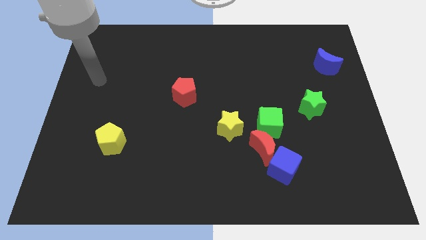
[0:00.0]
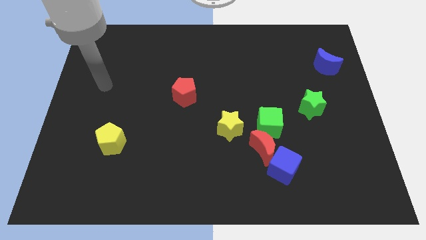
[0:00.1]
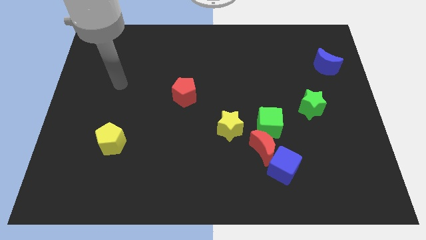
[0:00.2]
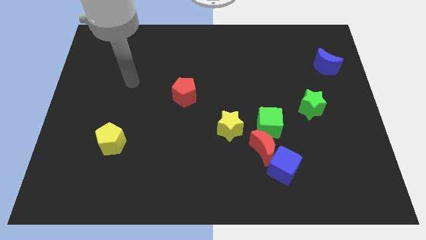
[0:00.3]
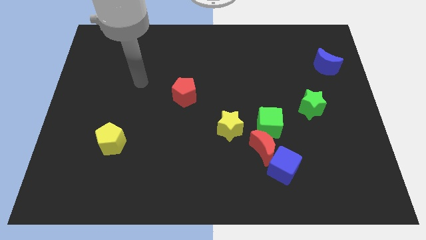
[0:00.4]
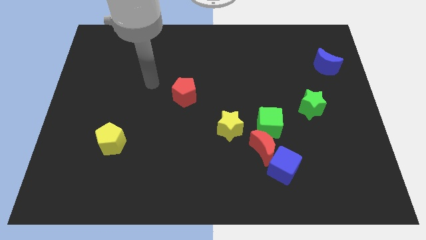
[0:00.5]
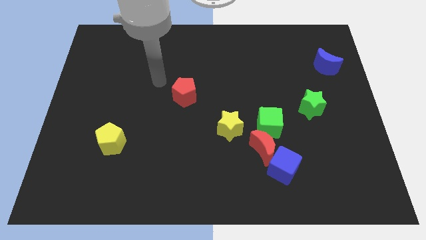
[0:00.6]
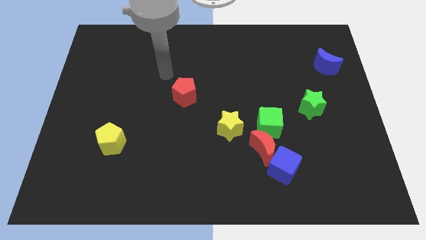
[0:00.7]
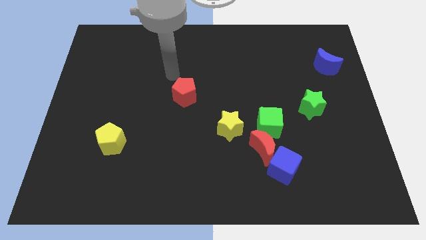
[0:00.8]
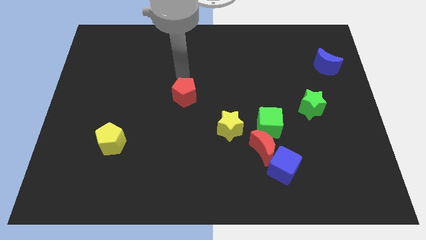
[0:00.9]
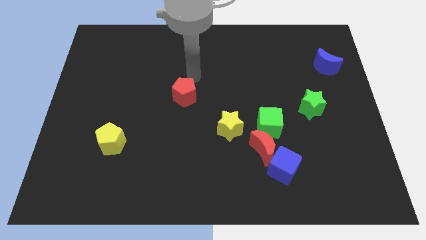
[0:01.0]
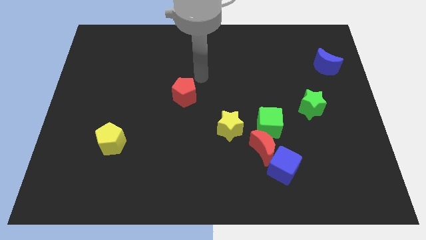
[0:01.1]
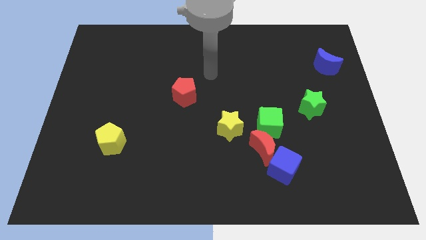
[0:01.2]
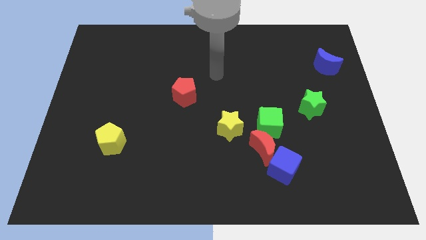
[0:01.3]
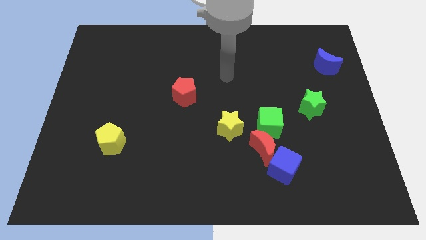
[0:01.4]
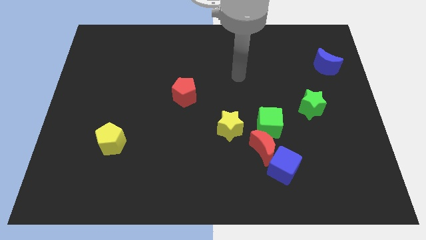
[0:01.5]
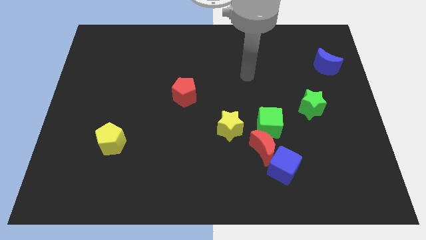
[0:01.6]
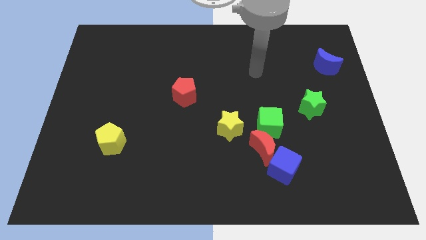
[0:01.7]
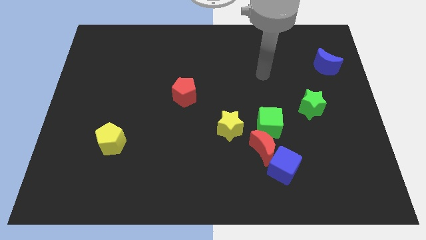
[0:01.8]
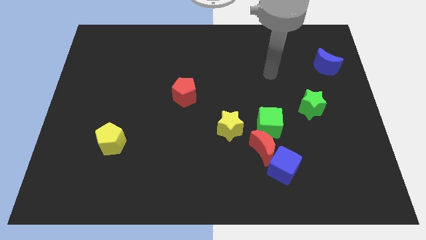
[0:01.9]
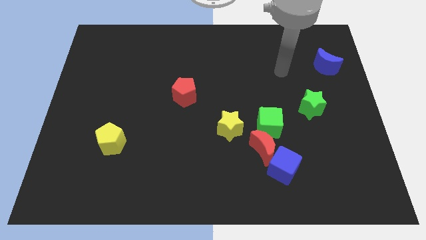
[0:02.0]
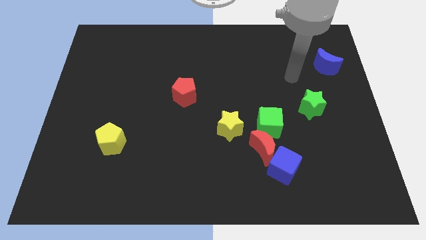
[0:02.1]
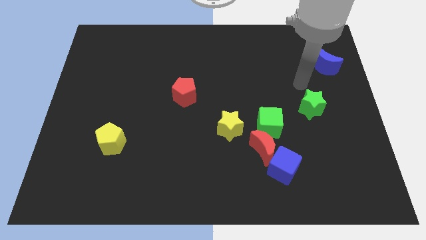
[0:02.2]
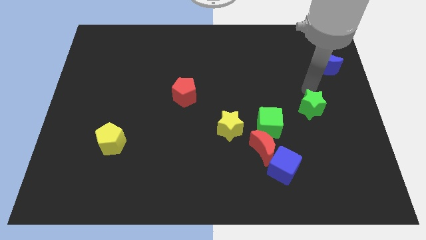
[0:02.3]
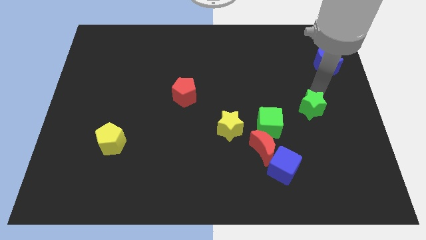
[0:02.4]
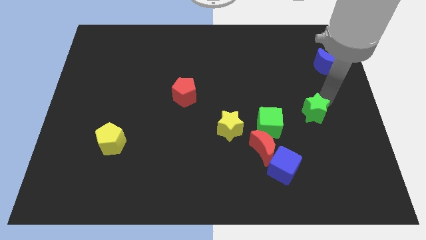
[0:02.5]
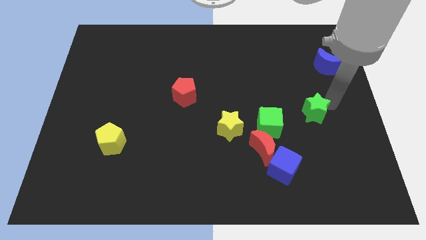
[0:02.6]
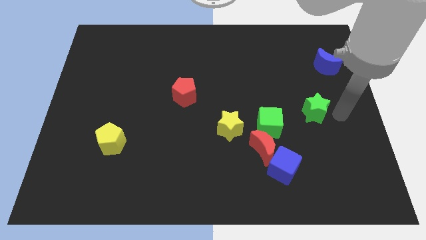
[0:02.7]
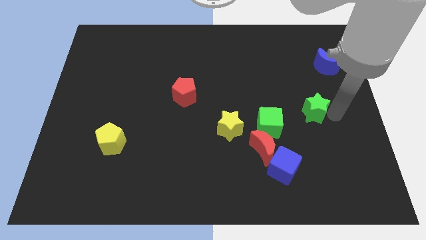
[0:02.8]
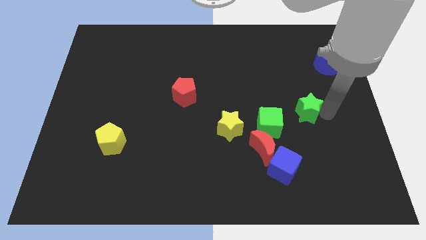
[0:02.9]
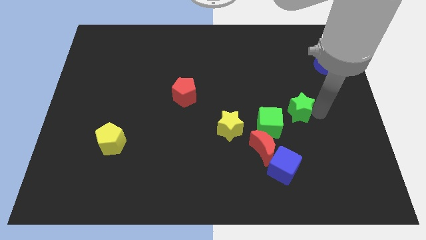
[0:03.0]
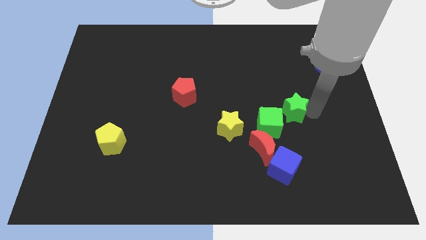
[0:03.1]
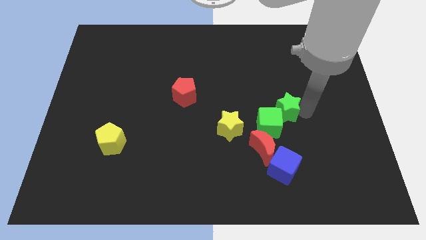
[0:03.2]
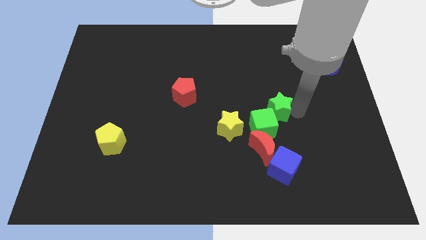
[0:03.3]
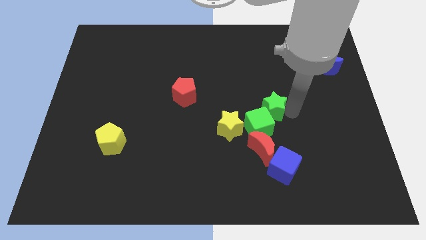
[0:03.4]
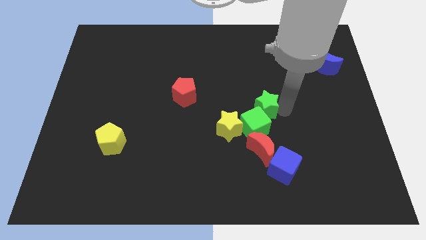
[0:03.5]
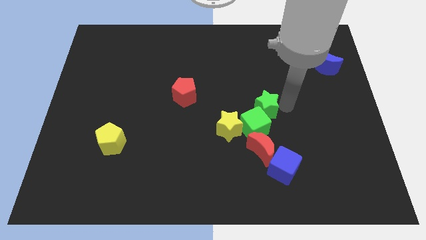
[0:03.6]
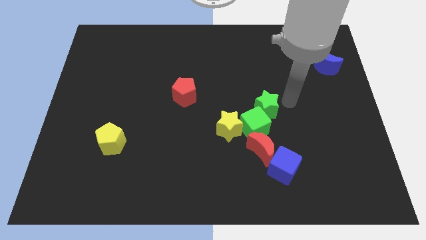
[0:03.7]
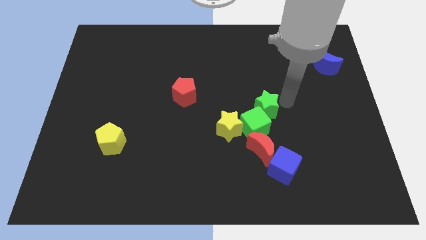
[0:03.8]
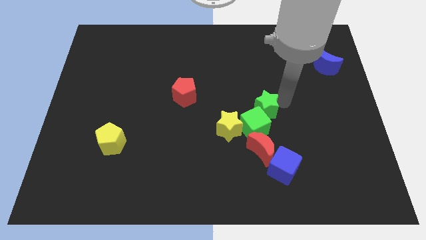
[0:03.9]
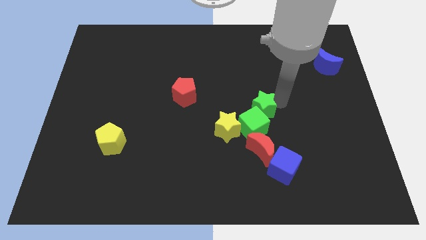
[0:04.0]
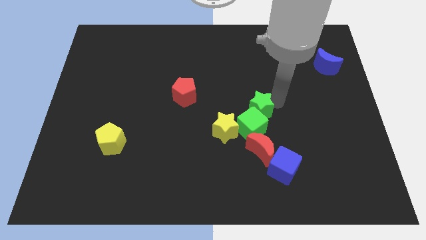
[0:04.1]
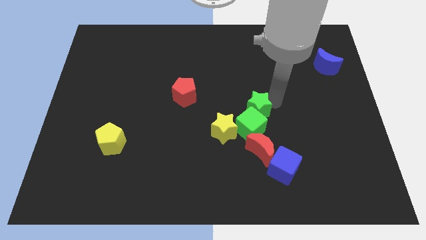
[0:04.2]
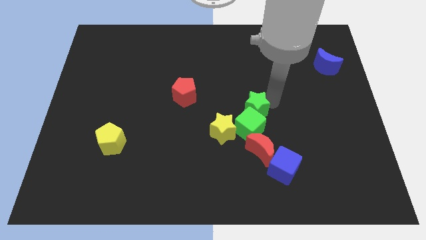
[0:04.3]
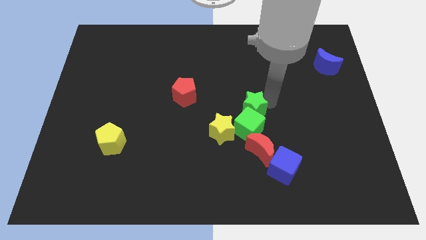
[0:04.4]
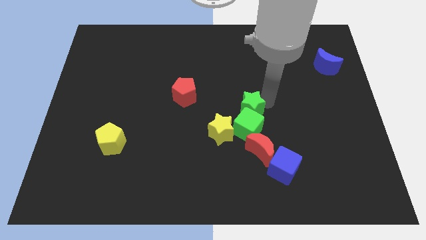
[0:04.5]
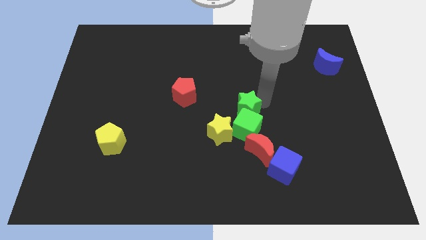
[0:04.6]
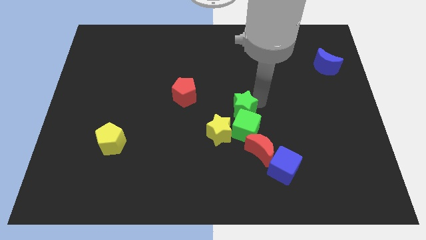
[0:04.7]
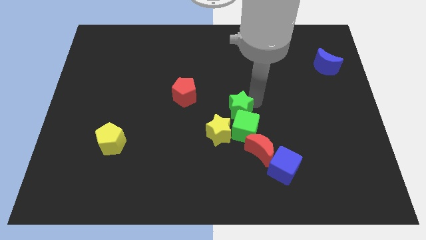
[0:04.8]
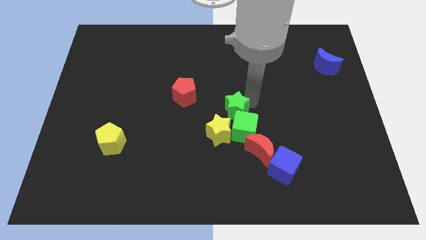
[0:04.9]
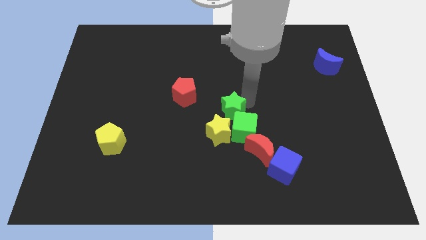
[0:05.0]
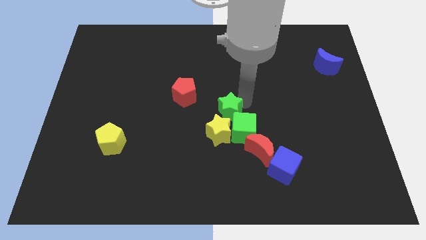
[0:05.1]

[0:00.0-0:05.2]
put the green star next to the yellow star

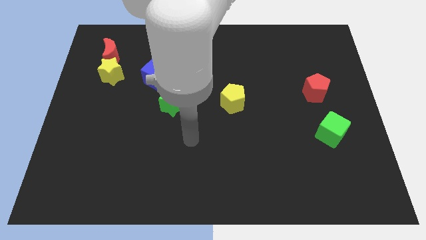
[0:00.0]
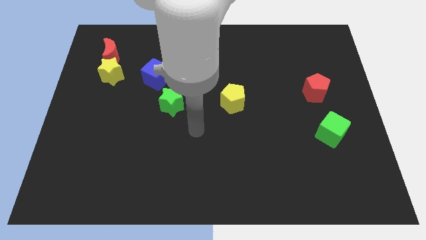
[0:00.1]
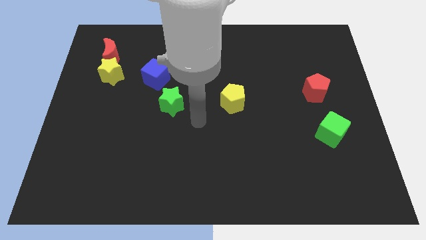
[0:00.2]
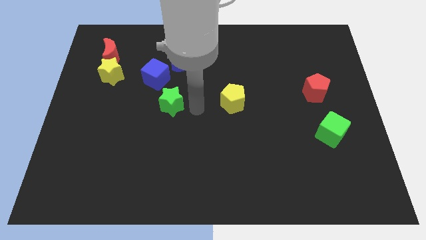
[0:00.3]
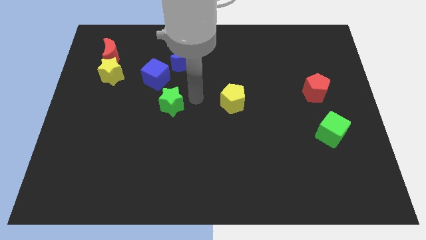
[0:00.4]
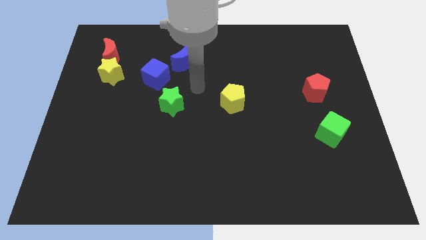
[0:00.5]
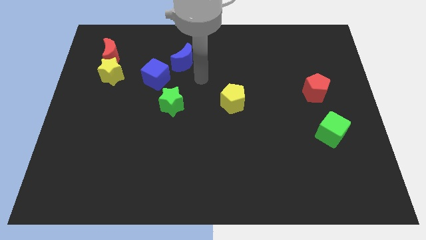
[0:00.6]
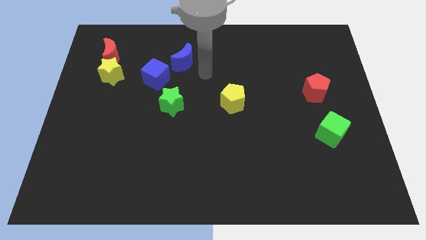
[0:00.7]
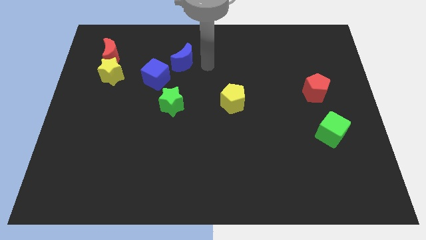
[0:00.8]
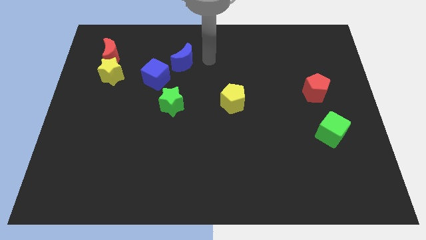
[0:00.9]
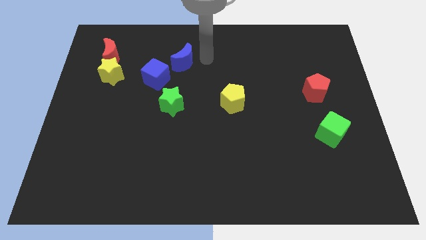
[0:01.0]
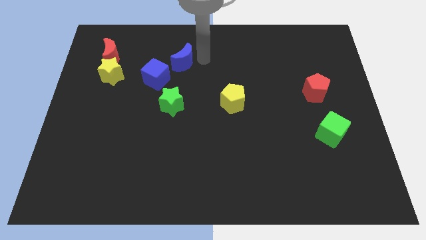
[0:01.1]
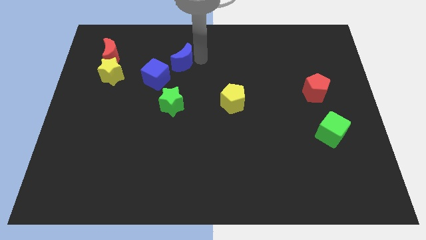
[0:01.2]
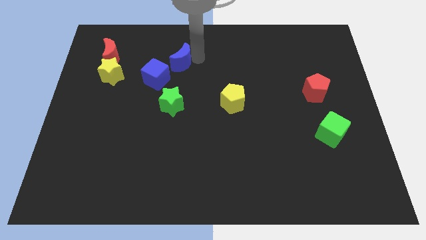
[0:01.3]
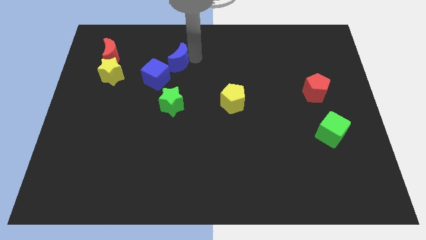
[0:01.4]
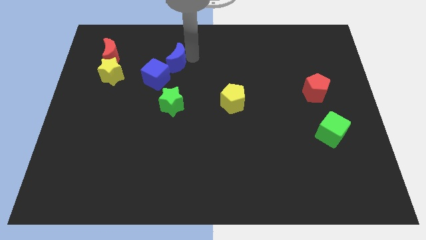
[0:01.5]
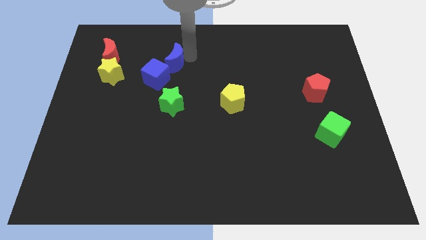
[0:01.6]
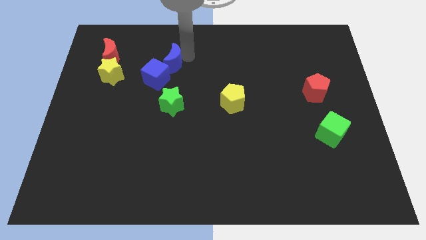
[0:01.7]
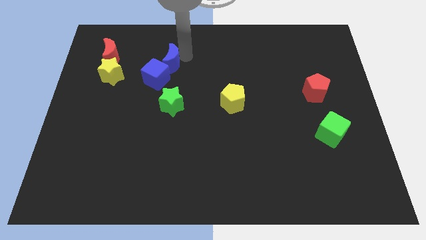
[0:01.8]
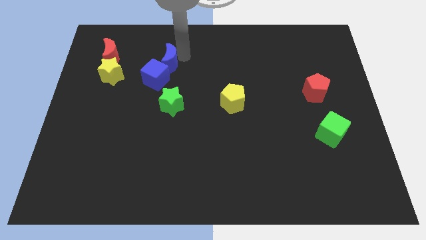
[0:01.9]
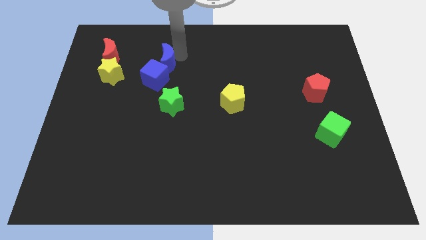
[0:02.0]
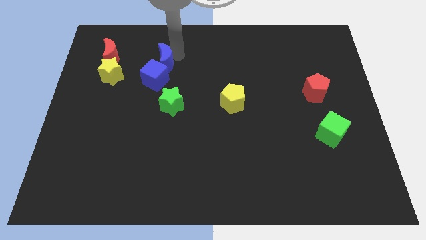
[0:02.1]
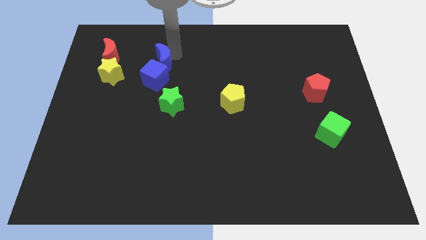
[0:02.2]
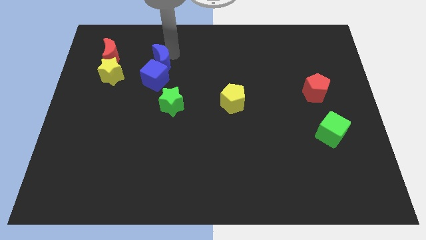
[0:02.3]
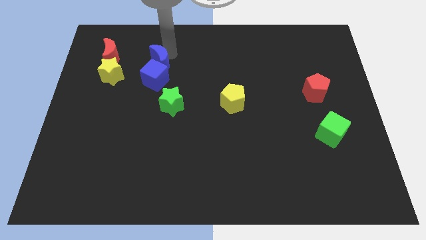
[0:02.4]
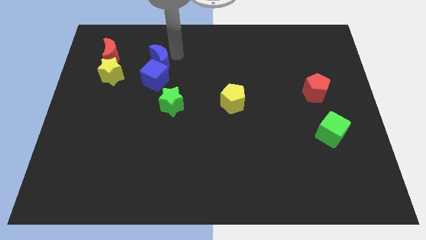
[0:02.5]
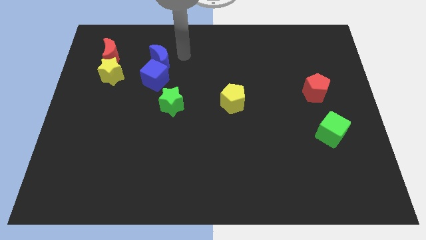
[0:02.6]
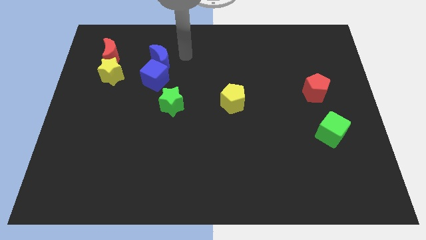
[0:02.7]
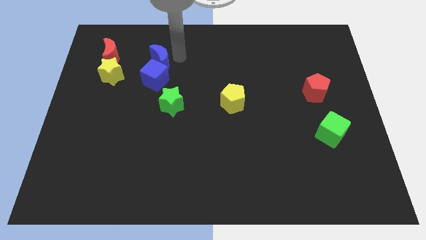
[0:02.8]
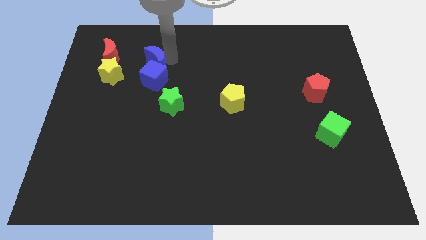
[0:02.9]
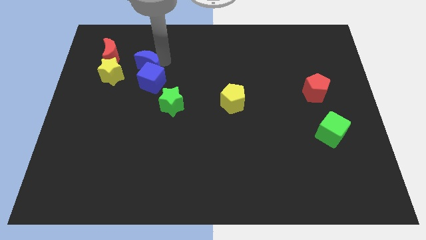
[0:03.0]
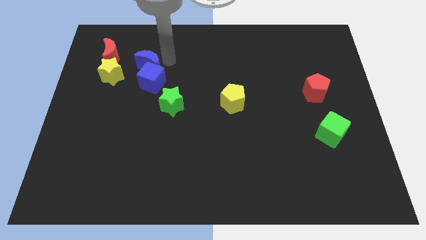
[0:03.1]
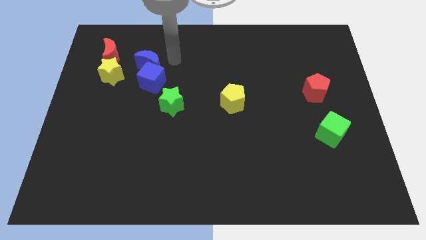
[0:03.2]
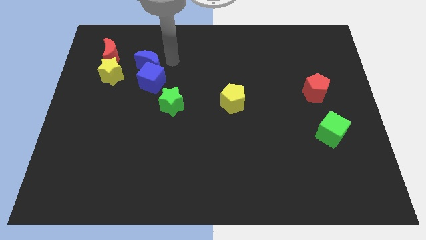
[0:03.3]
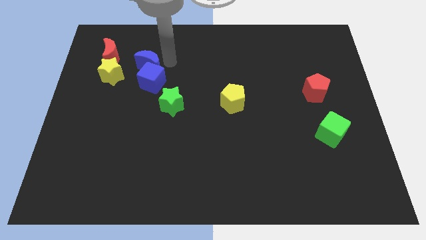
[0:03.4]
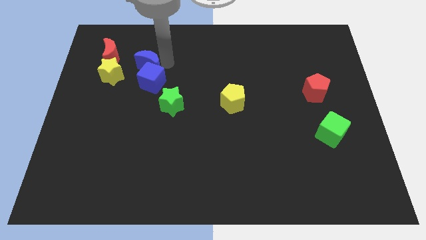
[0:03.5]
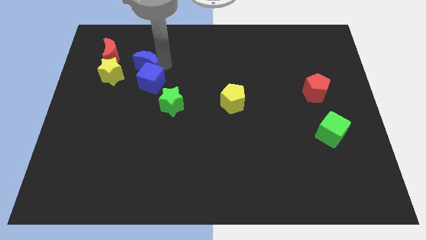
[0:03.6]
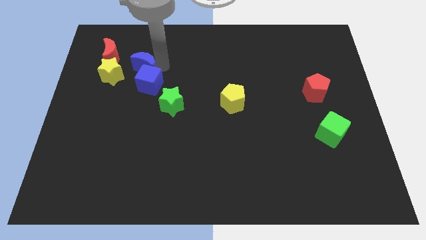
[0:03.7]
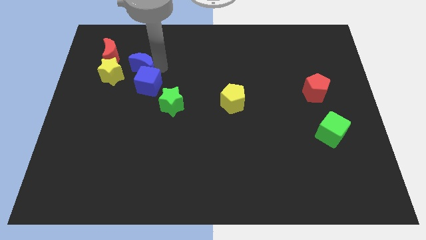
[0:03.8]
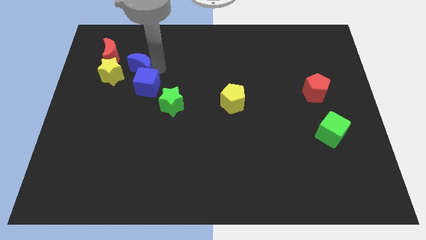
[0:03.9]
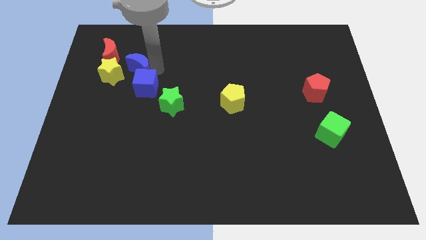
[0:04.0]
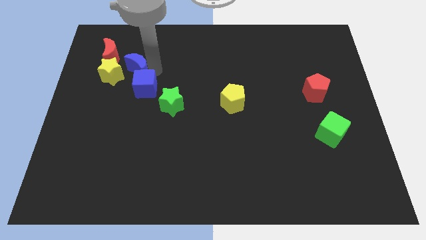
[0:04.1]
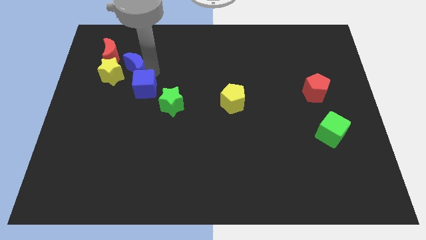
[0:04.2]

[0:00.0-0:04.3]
move the blue moon next to the yellow star
